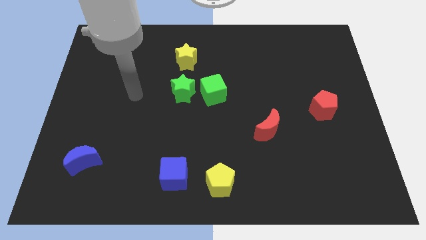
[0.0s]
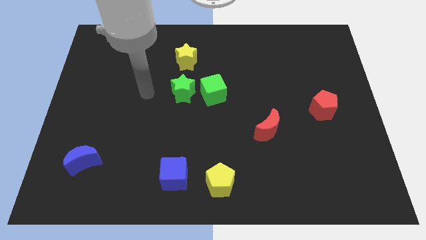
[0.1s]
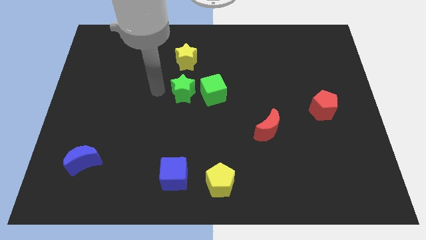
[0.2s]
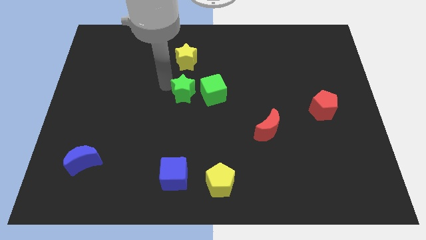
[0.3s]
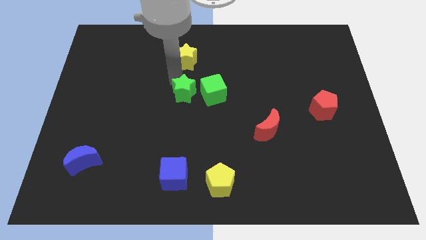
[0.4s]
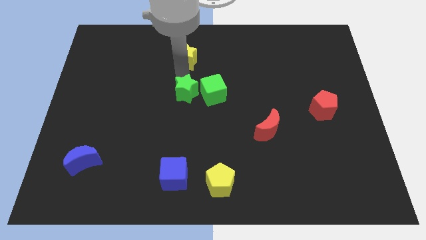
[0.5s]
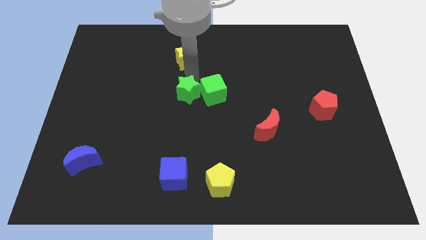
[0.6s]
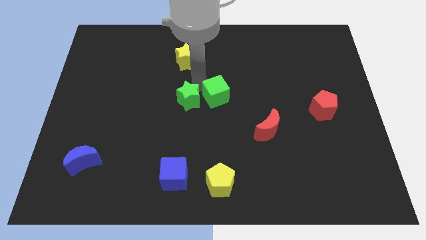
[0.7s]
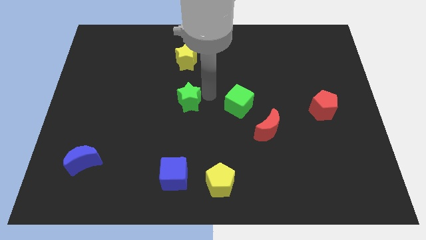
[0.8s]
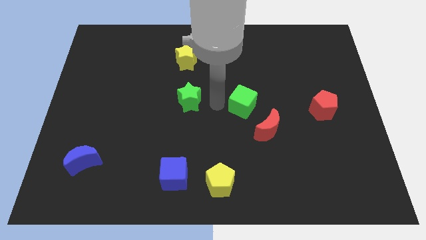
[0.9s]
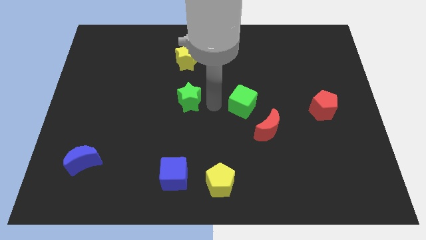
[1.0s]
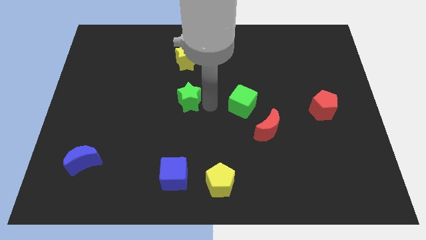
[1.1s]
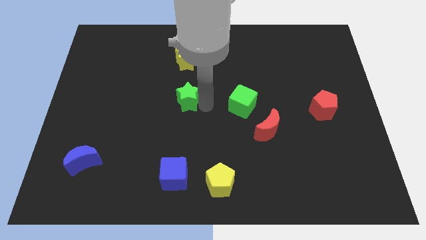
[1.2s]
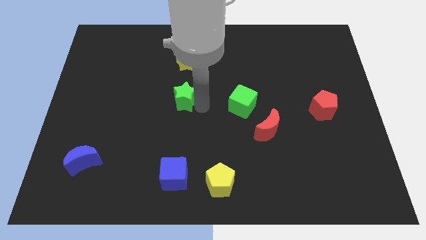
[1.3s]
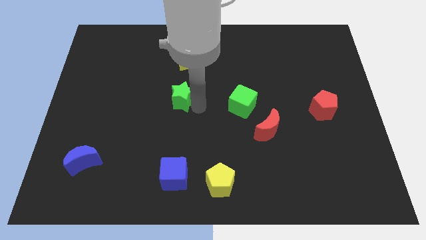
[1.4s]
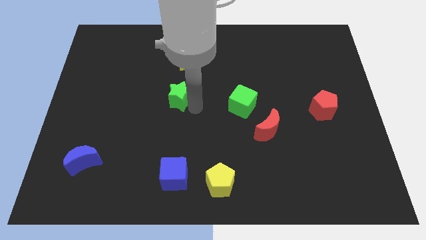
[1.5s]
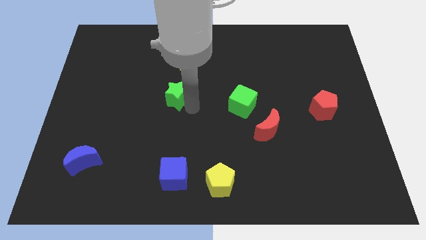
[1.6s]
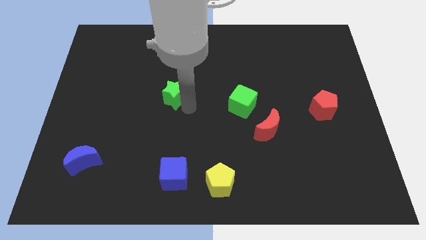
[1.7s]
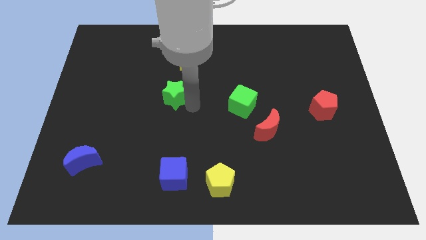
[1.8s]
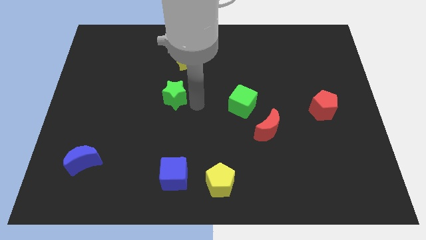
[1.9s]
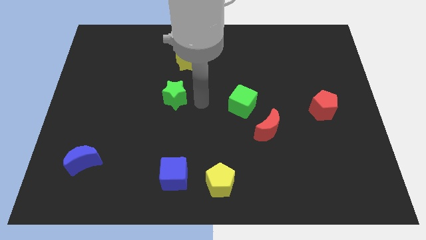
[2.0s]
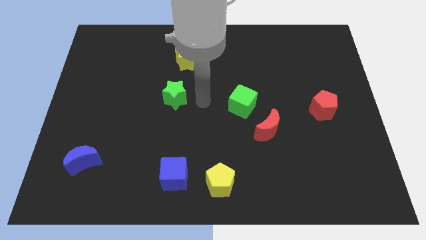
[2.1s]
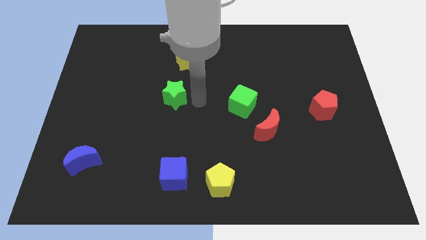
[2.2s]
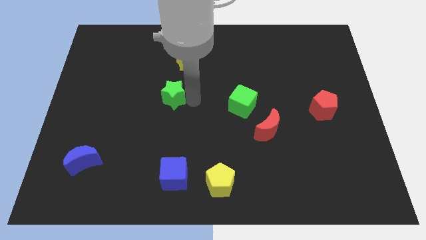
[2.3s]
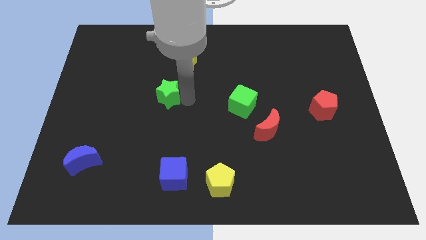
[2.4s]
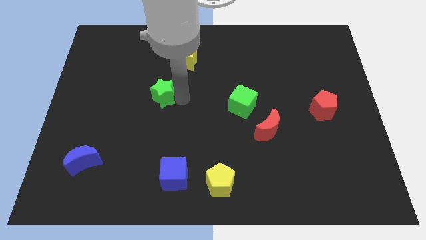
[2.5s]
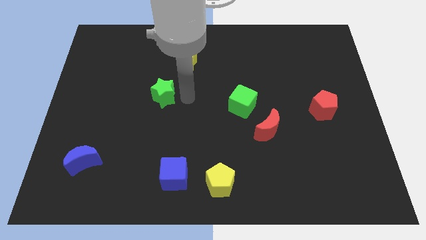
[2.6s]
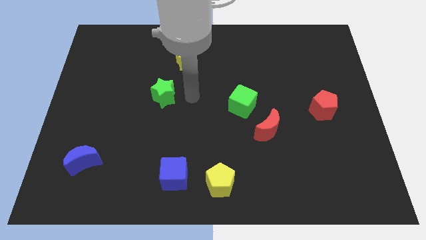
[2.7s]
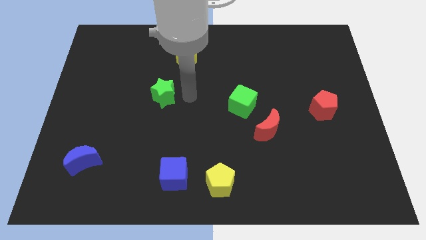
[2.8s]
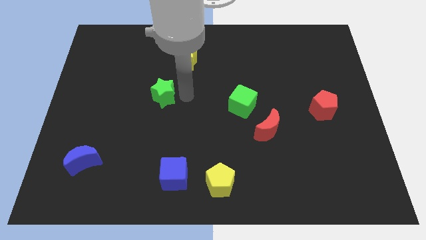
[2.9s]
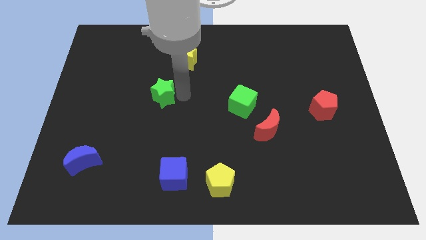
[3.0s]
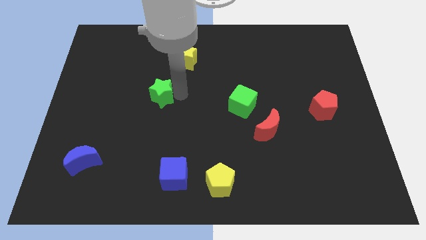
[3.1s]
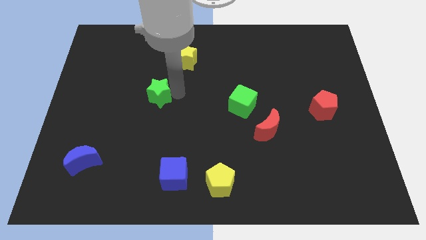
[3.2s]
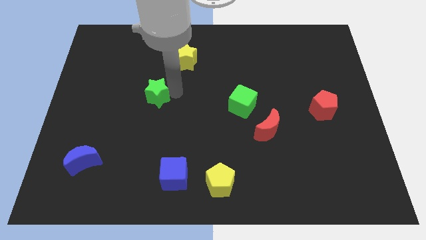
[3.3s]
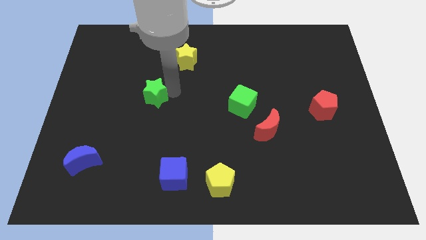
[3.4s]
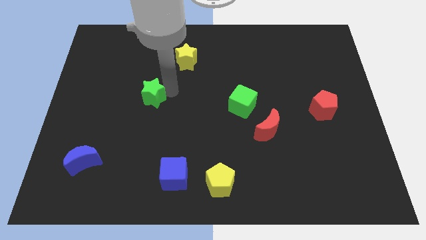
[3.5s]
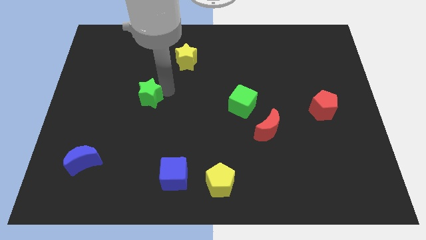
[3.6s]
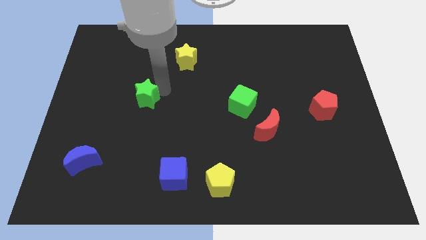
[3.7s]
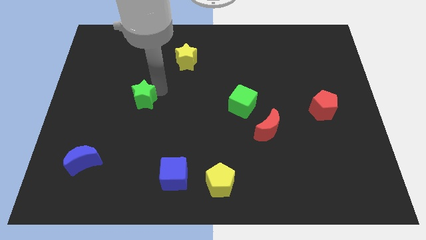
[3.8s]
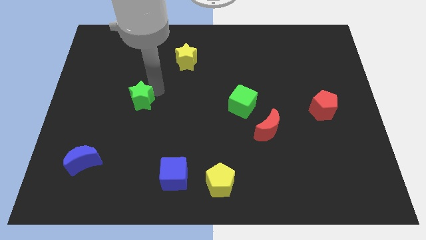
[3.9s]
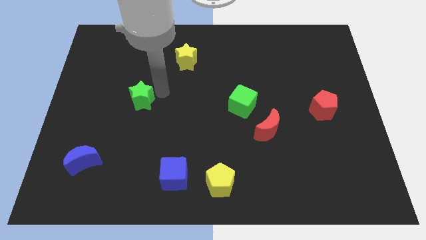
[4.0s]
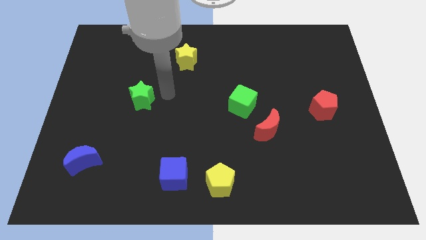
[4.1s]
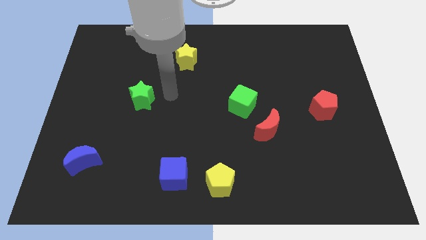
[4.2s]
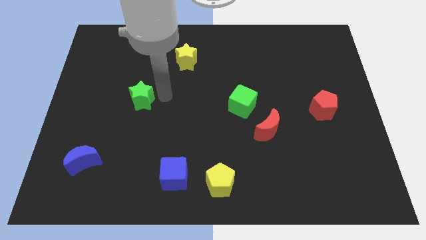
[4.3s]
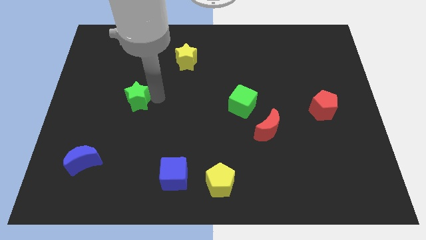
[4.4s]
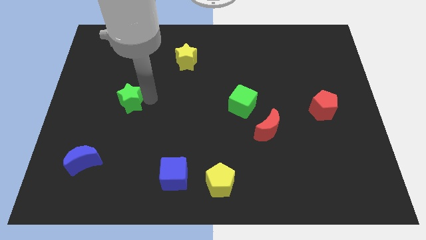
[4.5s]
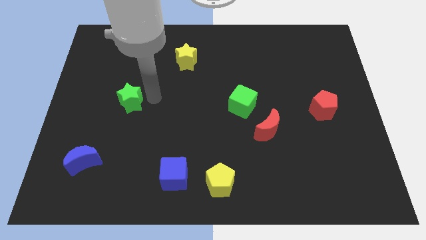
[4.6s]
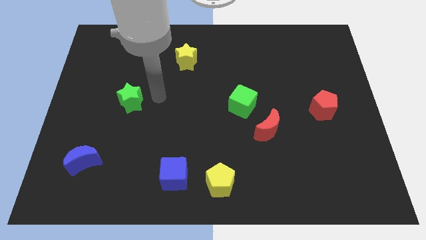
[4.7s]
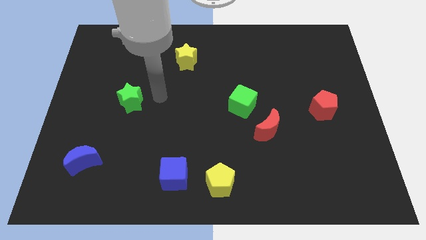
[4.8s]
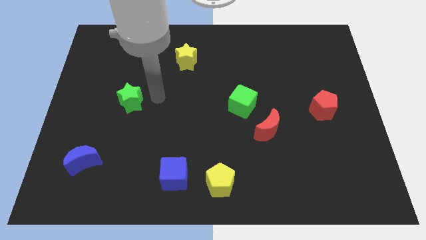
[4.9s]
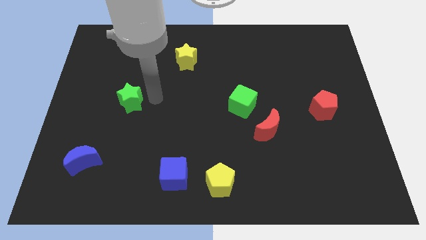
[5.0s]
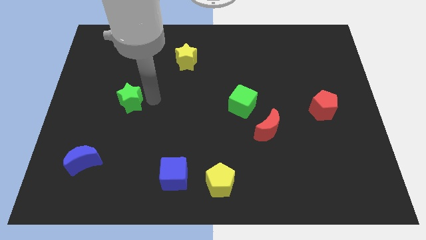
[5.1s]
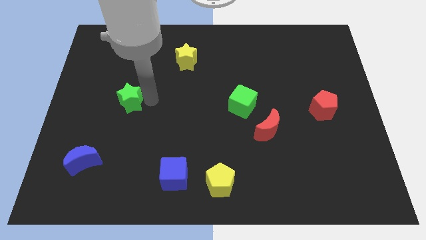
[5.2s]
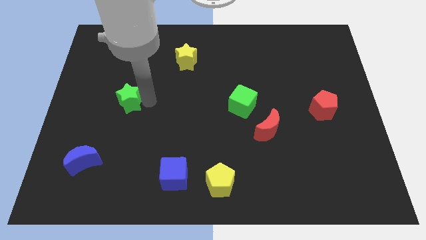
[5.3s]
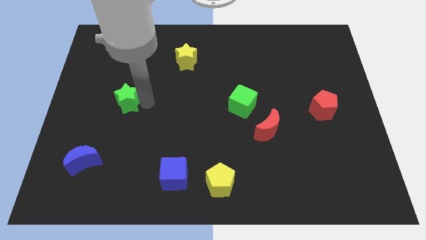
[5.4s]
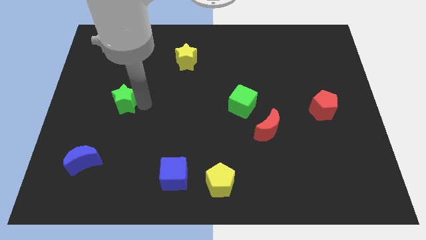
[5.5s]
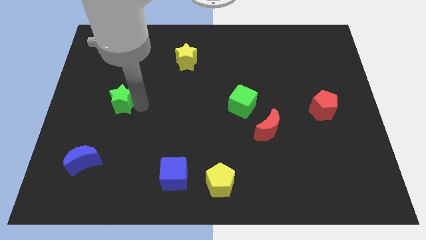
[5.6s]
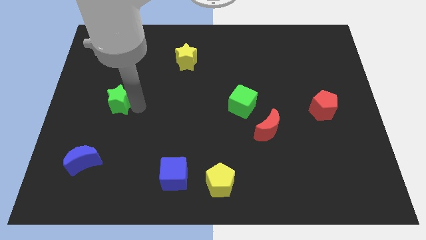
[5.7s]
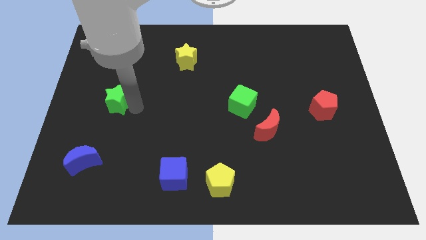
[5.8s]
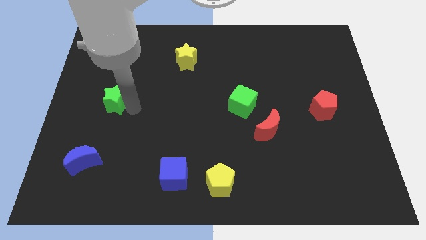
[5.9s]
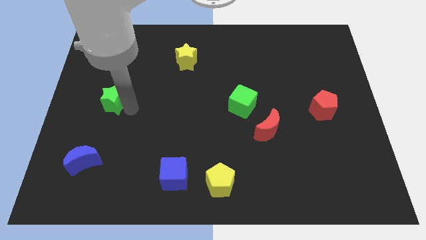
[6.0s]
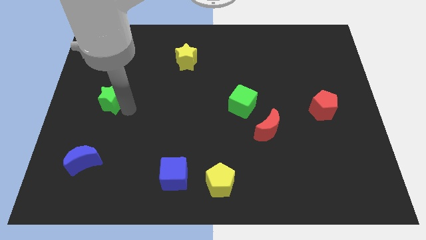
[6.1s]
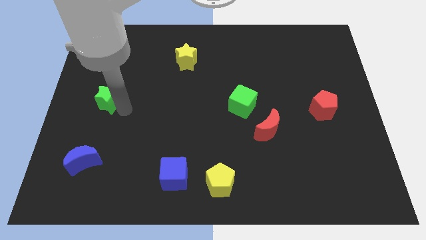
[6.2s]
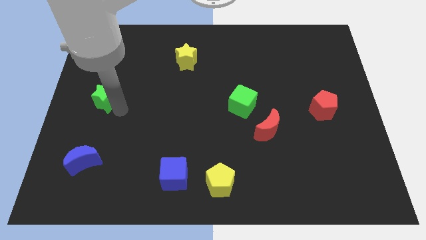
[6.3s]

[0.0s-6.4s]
push the green star to the left side
